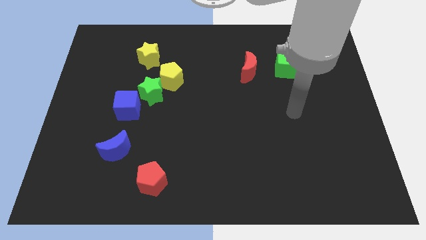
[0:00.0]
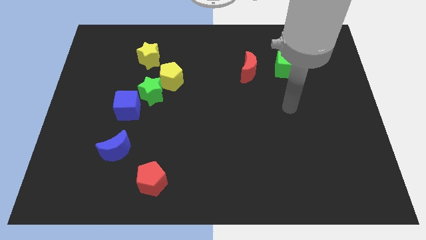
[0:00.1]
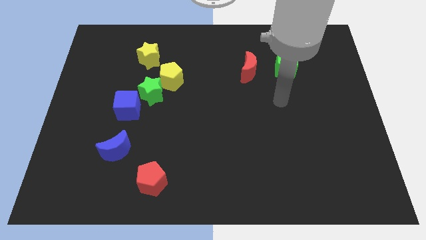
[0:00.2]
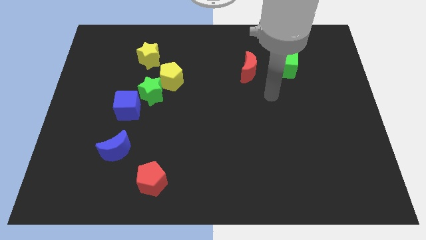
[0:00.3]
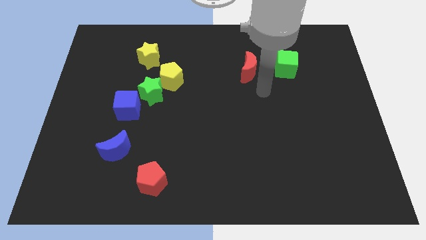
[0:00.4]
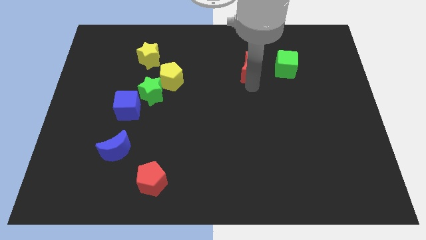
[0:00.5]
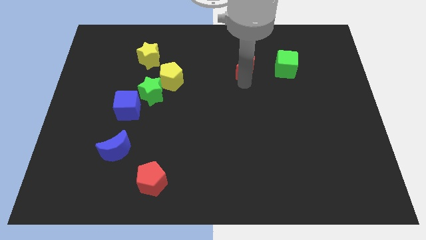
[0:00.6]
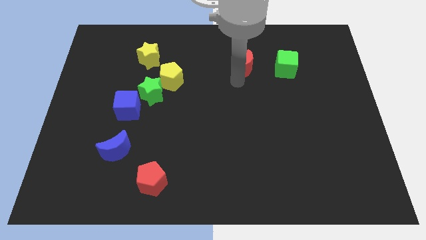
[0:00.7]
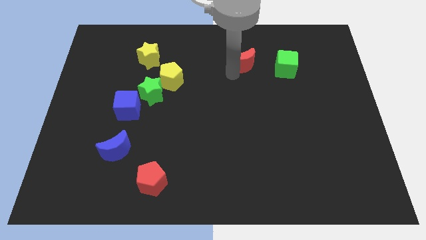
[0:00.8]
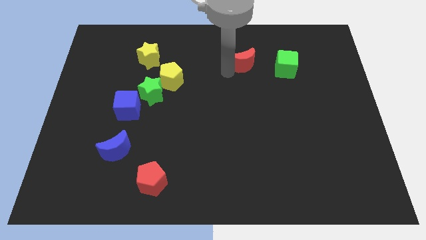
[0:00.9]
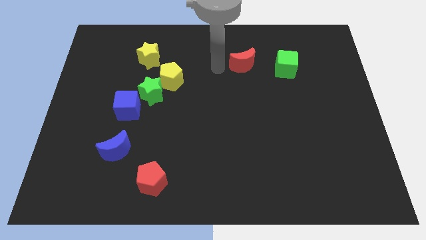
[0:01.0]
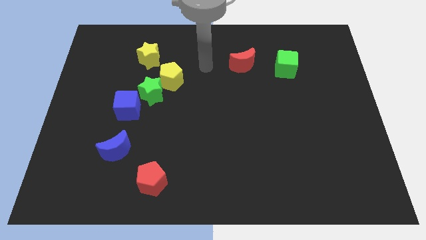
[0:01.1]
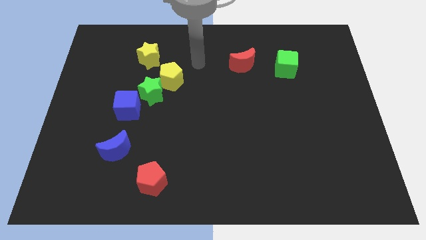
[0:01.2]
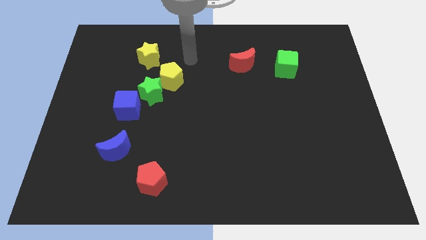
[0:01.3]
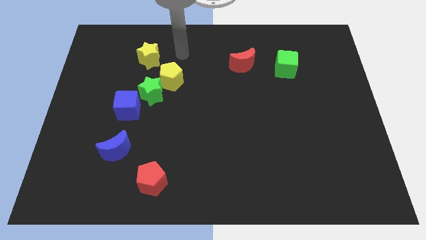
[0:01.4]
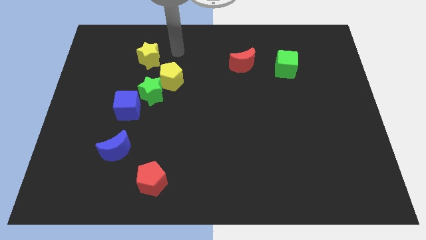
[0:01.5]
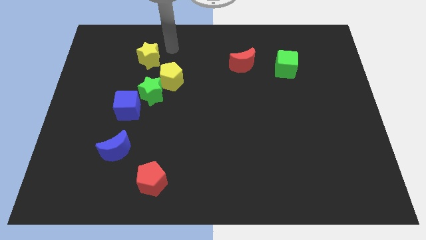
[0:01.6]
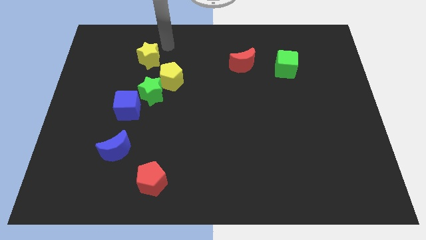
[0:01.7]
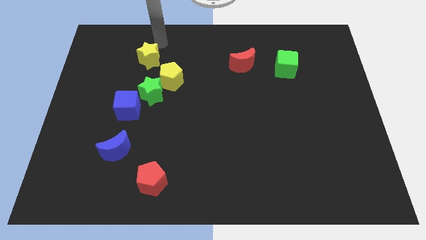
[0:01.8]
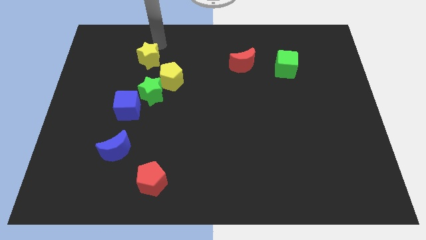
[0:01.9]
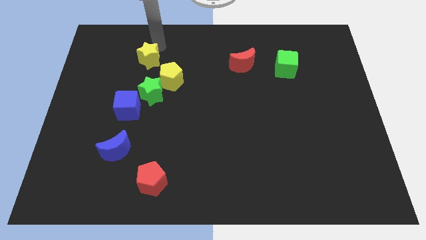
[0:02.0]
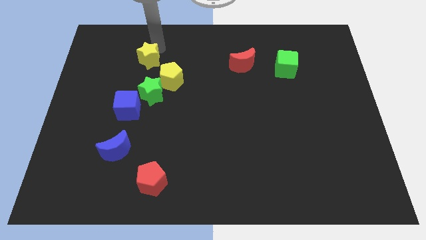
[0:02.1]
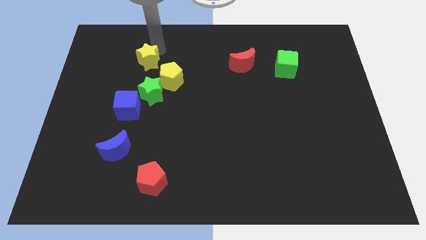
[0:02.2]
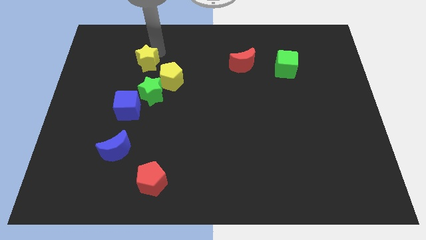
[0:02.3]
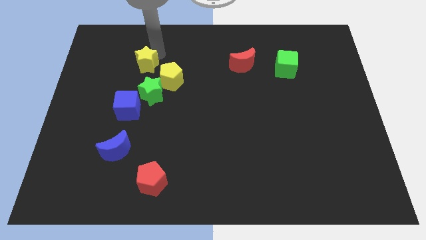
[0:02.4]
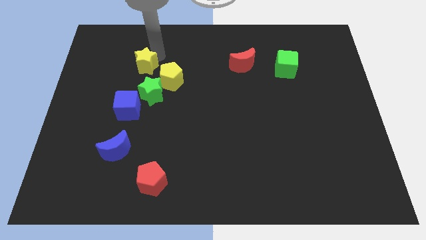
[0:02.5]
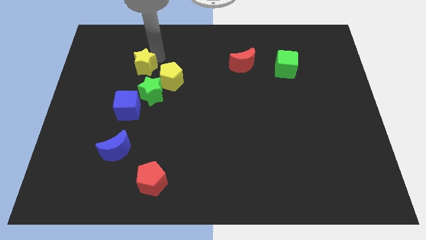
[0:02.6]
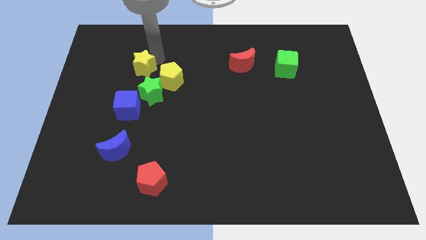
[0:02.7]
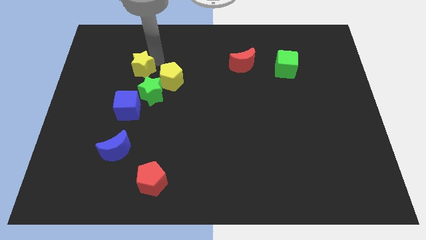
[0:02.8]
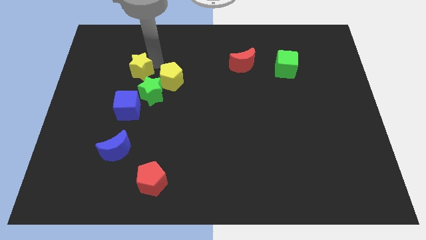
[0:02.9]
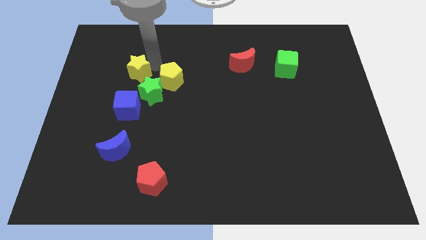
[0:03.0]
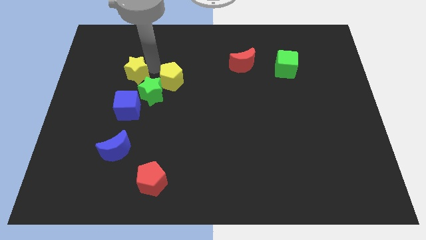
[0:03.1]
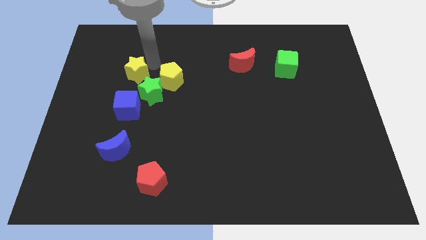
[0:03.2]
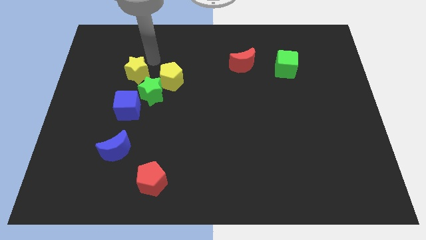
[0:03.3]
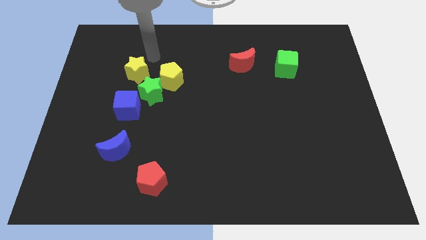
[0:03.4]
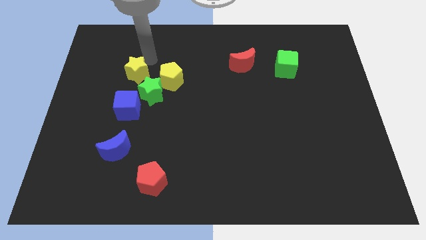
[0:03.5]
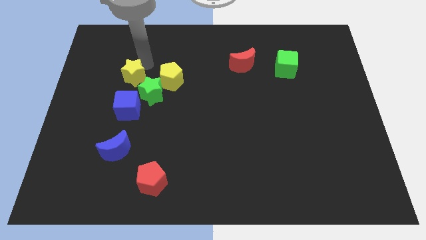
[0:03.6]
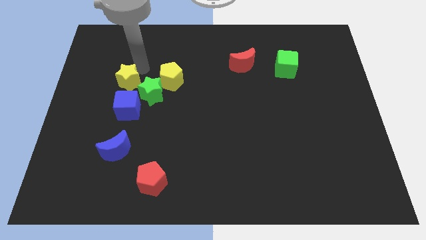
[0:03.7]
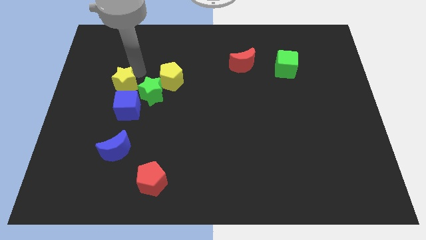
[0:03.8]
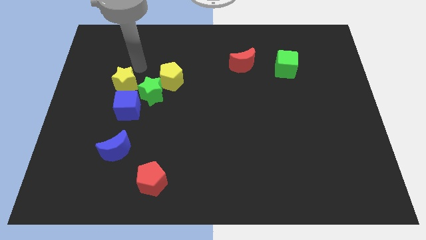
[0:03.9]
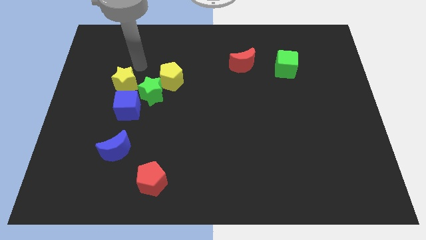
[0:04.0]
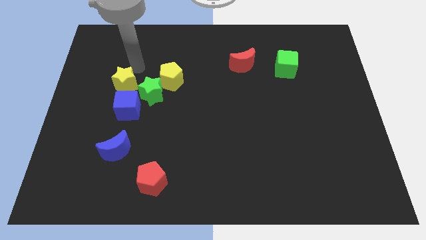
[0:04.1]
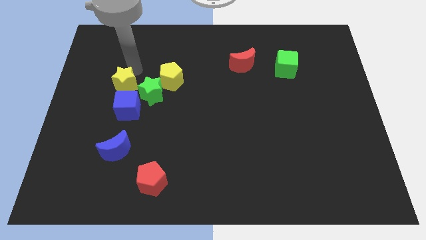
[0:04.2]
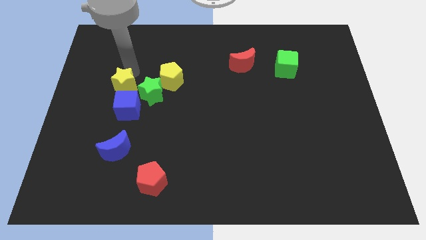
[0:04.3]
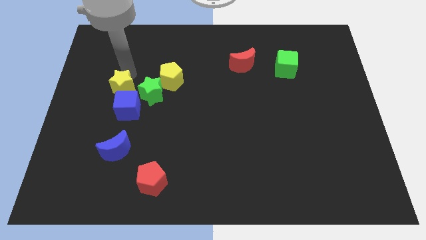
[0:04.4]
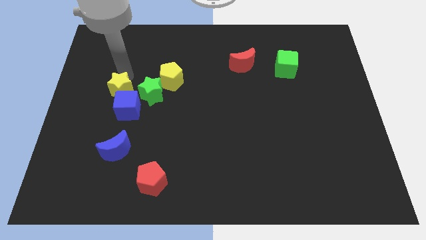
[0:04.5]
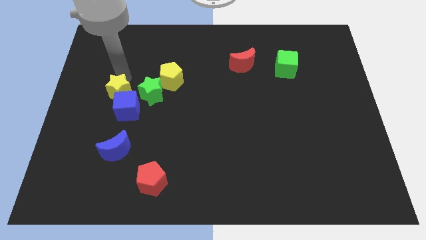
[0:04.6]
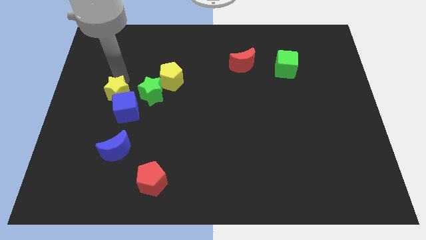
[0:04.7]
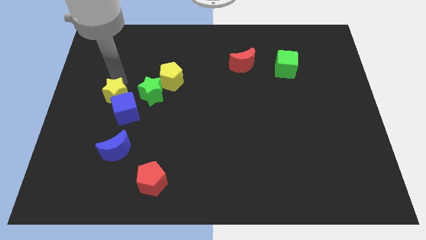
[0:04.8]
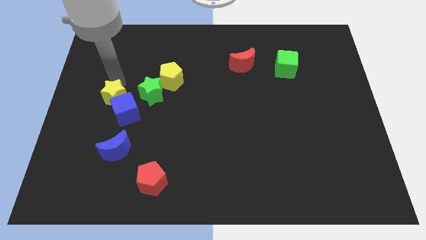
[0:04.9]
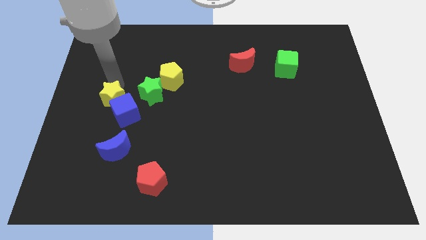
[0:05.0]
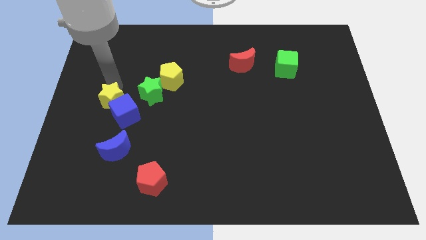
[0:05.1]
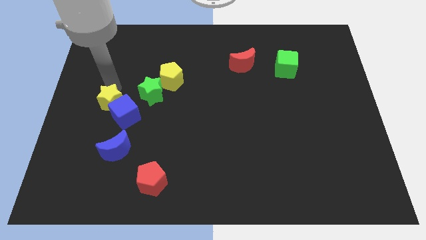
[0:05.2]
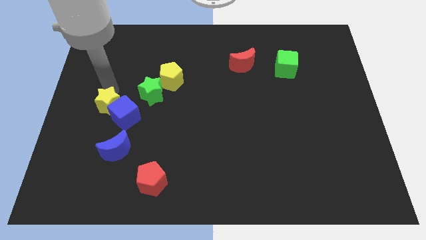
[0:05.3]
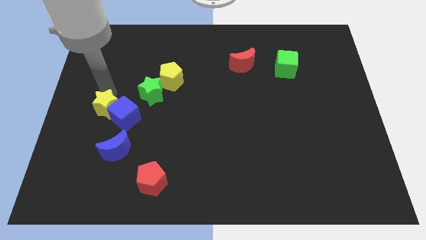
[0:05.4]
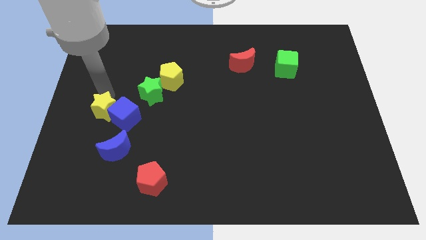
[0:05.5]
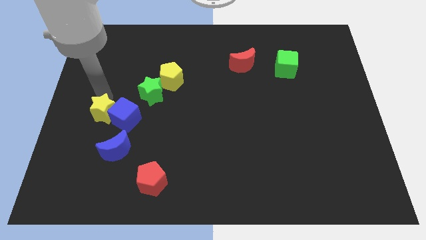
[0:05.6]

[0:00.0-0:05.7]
put the yellow star to the top left of the blue moon

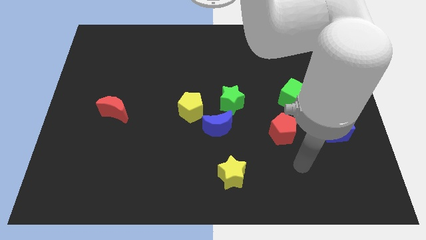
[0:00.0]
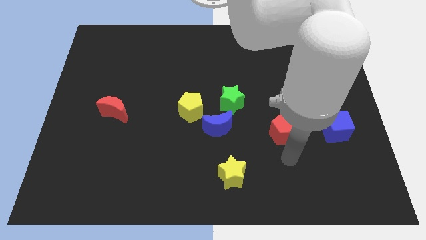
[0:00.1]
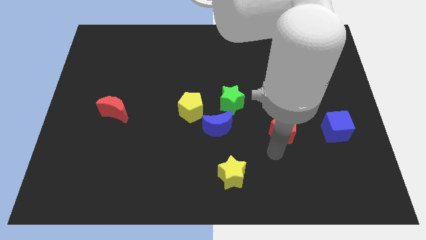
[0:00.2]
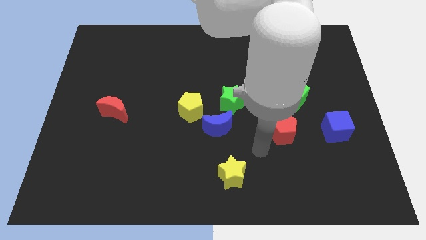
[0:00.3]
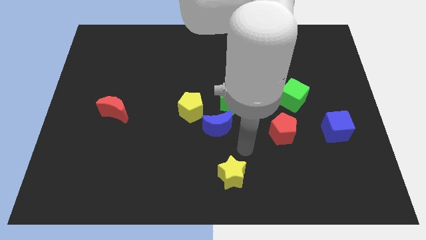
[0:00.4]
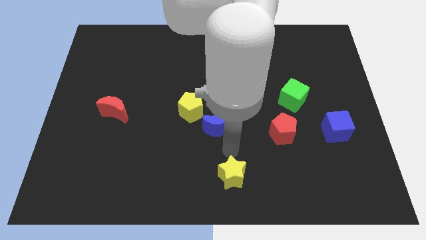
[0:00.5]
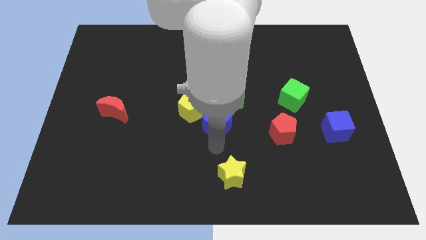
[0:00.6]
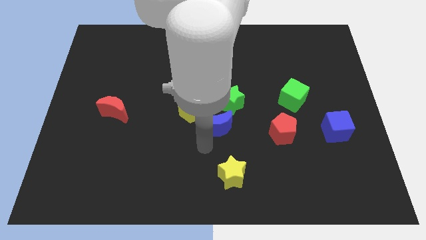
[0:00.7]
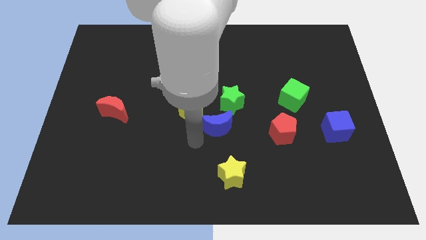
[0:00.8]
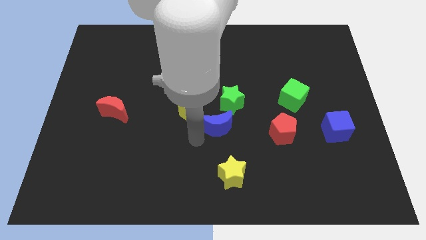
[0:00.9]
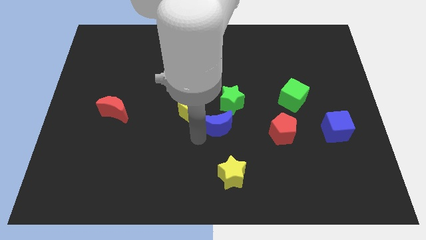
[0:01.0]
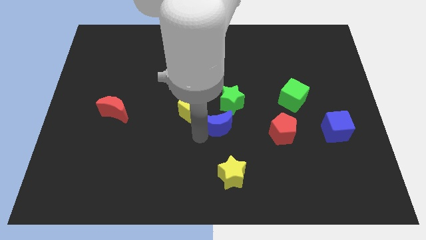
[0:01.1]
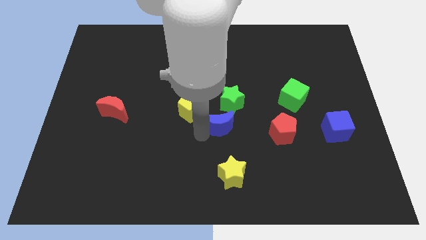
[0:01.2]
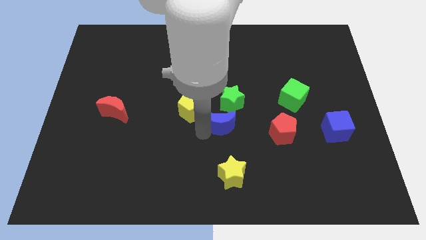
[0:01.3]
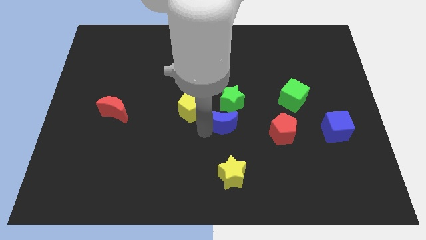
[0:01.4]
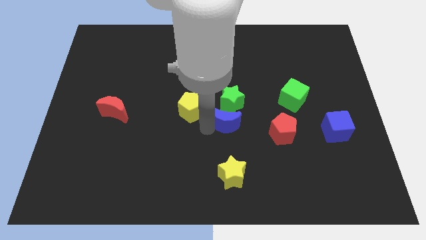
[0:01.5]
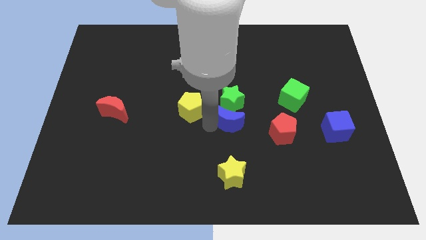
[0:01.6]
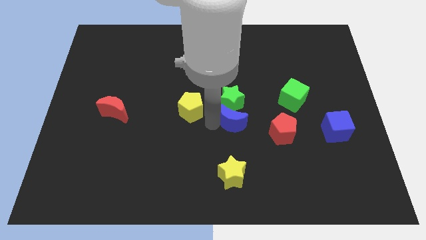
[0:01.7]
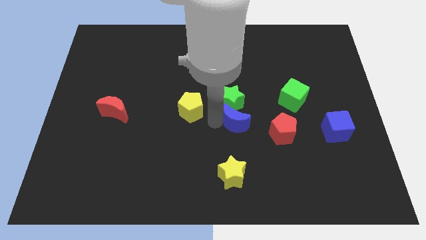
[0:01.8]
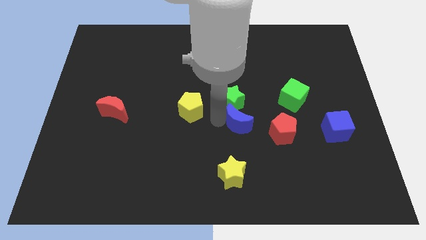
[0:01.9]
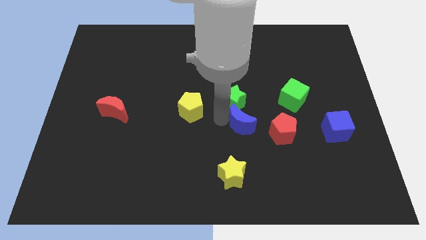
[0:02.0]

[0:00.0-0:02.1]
move the blue moon diagonally up and to the left of the red pentagon
